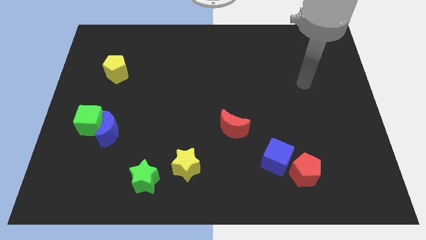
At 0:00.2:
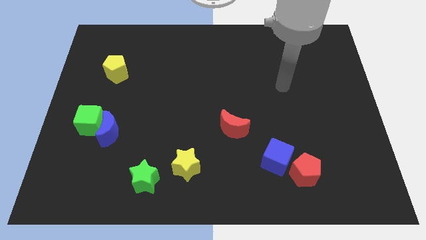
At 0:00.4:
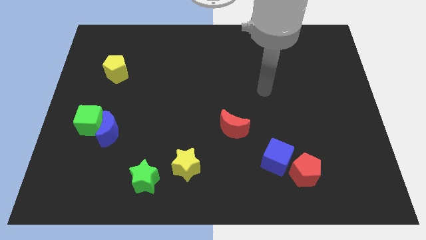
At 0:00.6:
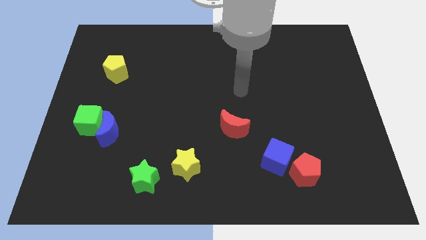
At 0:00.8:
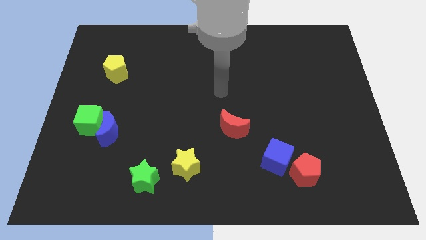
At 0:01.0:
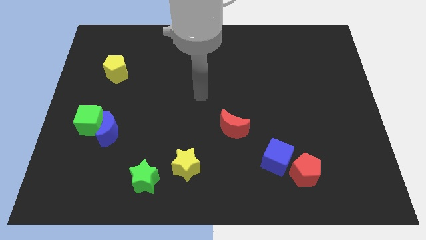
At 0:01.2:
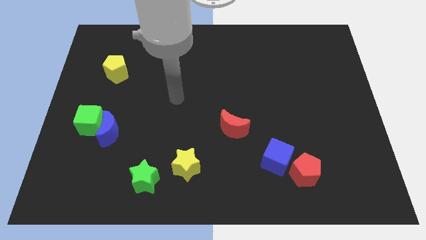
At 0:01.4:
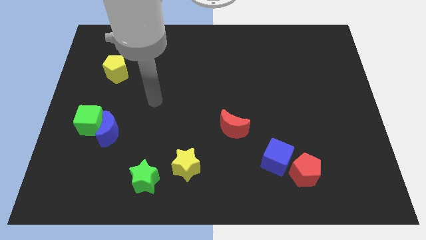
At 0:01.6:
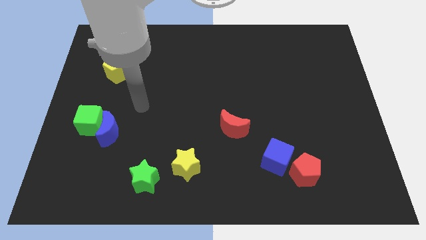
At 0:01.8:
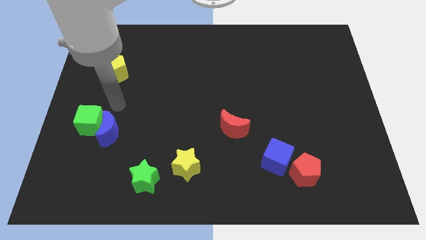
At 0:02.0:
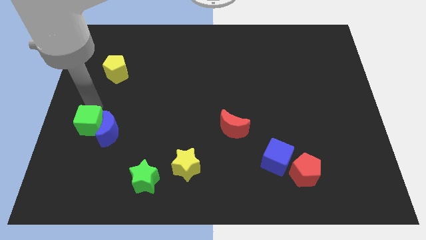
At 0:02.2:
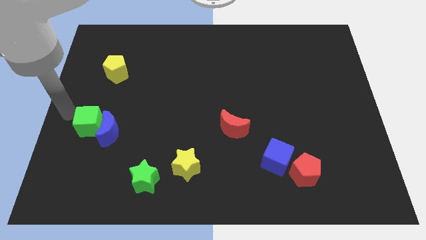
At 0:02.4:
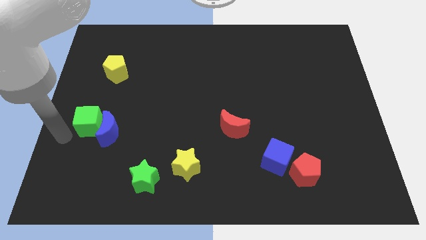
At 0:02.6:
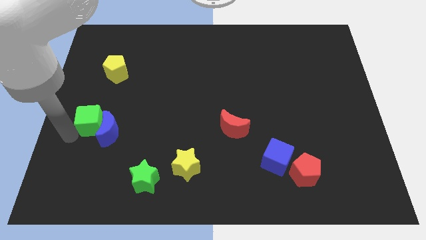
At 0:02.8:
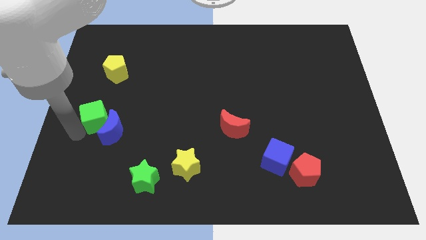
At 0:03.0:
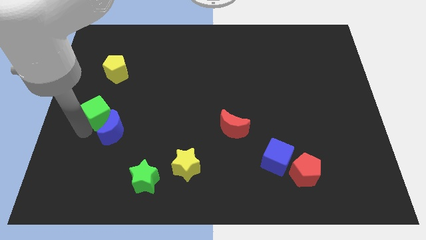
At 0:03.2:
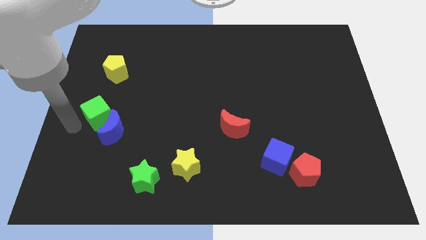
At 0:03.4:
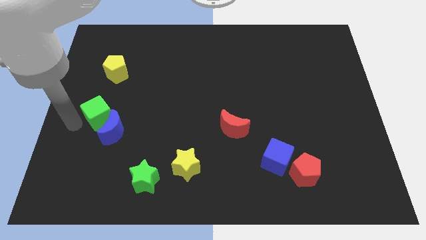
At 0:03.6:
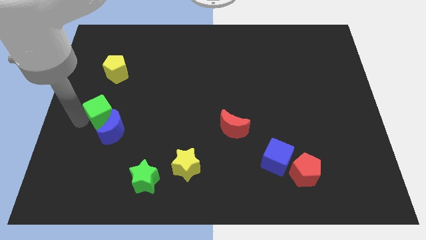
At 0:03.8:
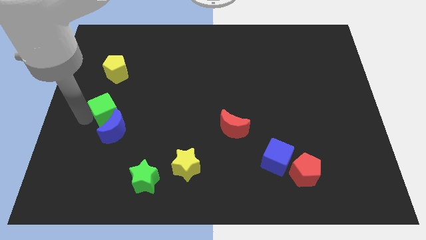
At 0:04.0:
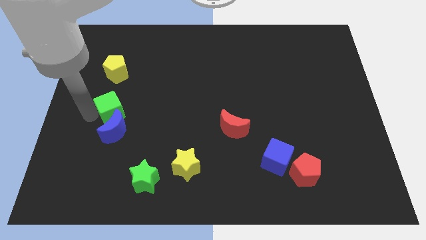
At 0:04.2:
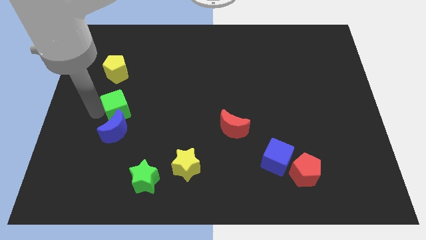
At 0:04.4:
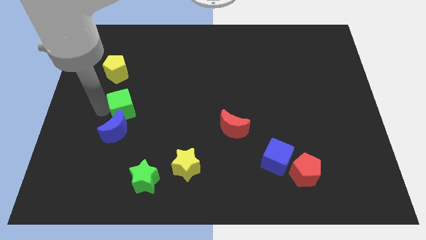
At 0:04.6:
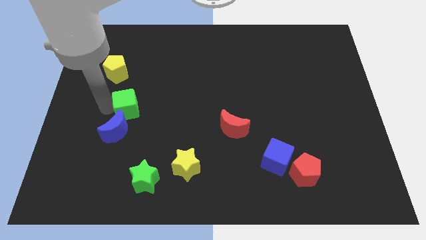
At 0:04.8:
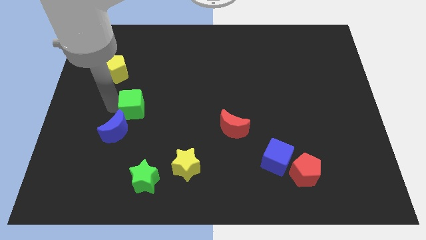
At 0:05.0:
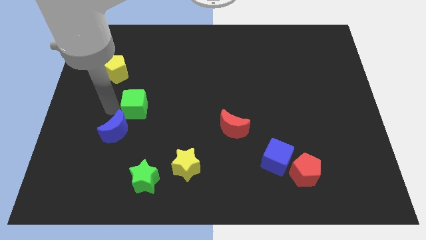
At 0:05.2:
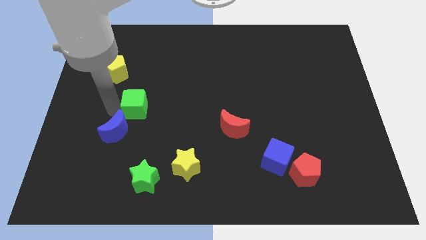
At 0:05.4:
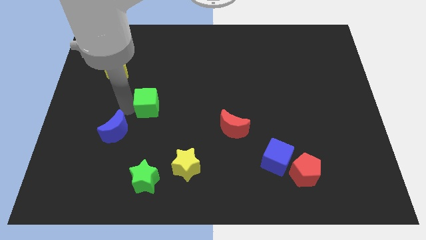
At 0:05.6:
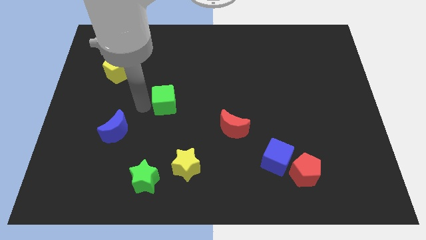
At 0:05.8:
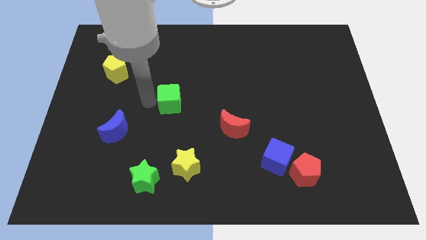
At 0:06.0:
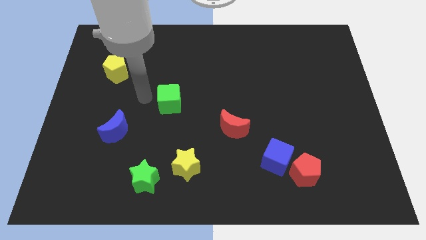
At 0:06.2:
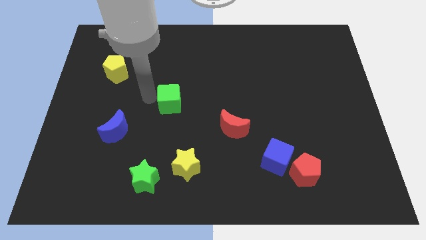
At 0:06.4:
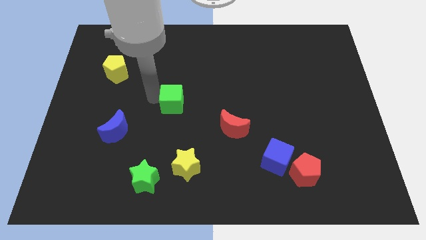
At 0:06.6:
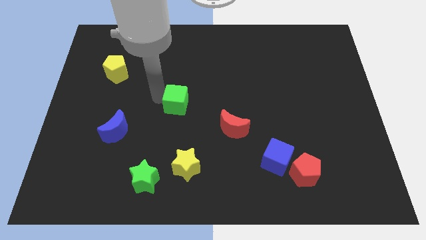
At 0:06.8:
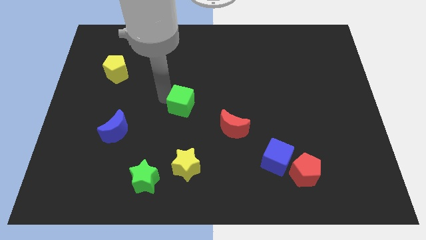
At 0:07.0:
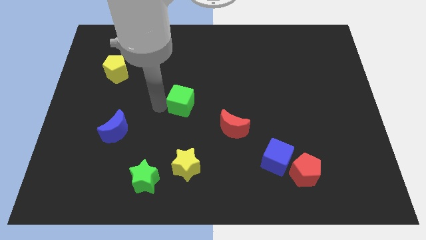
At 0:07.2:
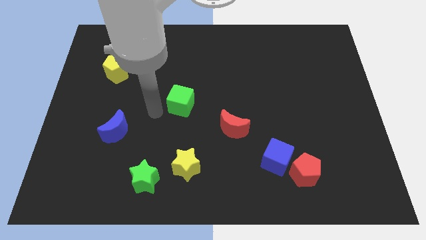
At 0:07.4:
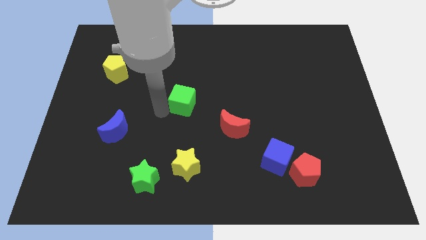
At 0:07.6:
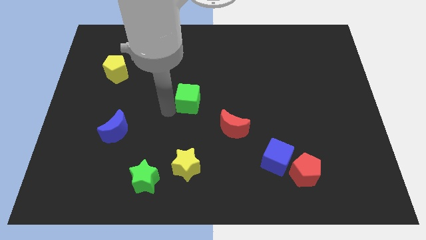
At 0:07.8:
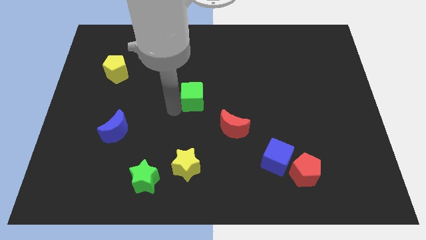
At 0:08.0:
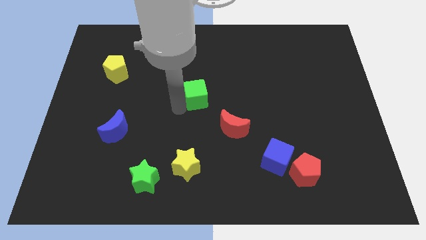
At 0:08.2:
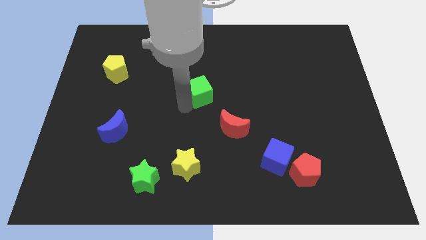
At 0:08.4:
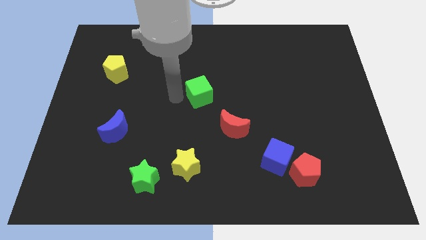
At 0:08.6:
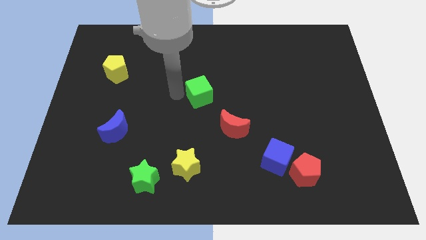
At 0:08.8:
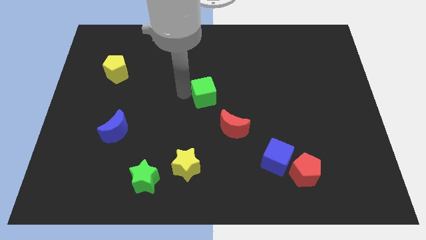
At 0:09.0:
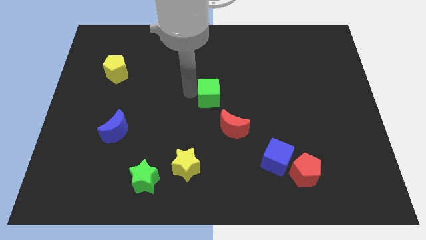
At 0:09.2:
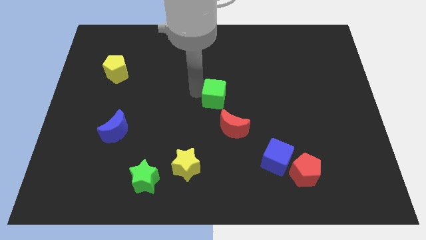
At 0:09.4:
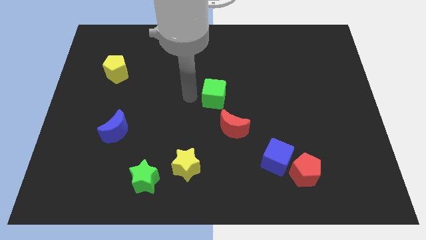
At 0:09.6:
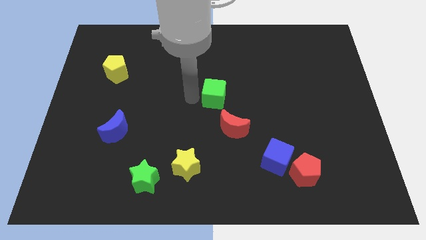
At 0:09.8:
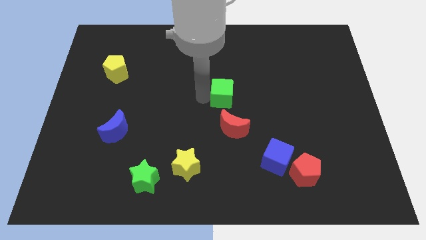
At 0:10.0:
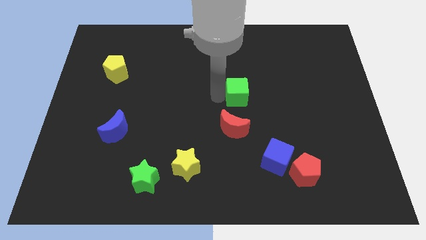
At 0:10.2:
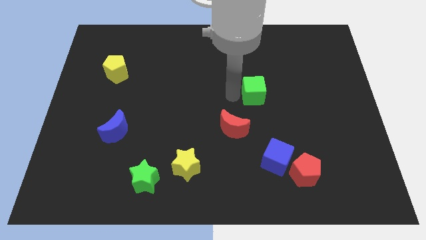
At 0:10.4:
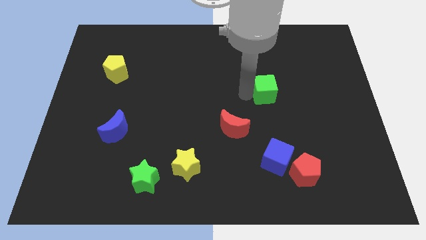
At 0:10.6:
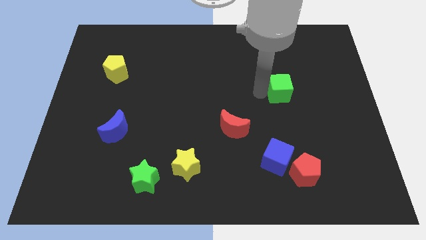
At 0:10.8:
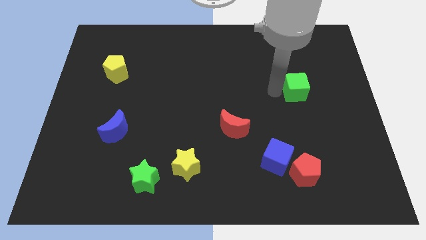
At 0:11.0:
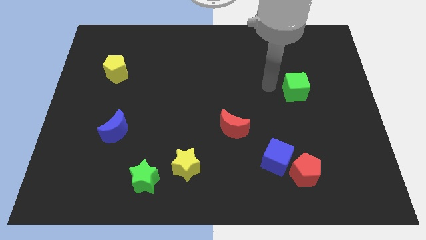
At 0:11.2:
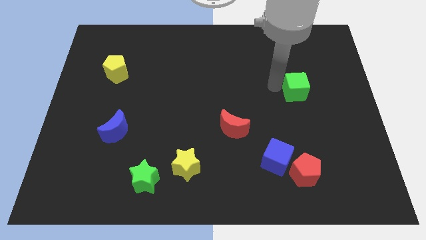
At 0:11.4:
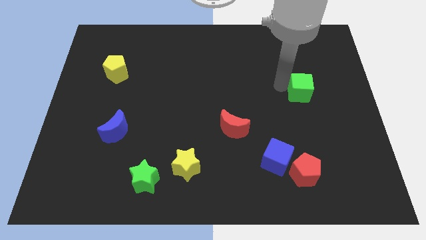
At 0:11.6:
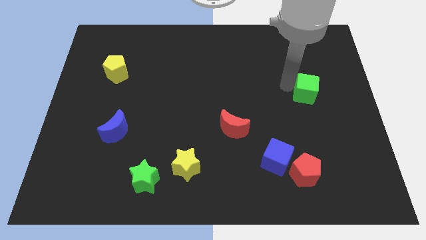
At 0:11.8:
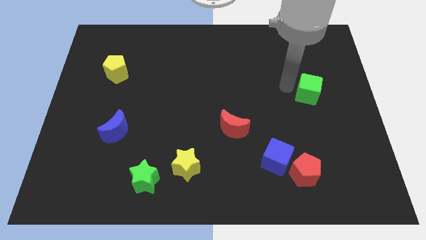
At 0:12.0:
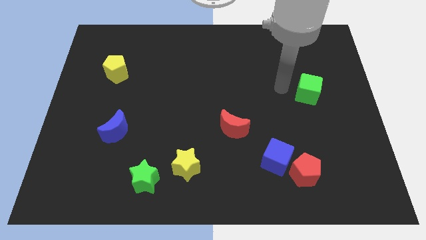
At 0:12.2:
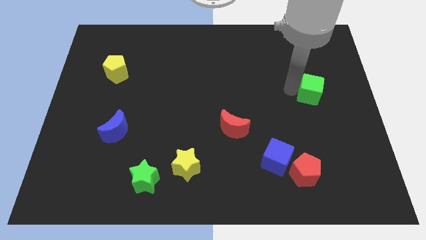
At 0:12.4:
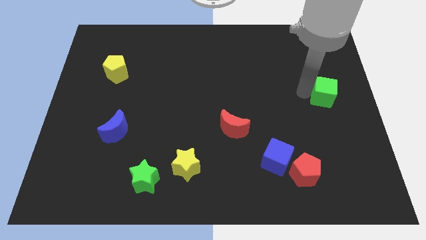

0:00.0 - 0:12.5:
move the green cube to the right side of the board

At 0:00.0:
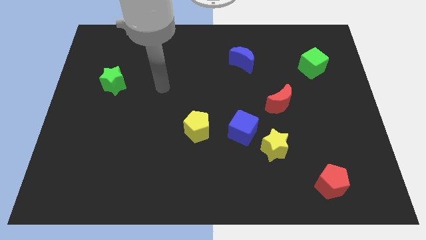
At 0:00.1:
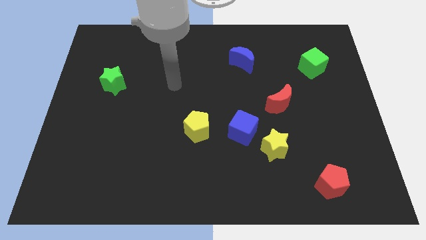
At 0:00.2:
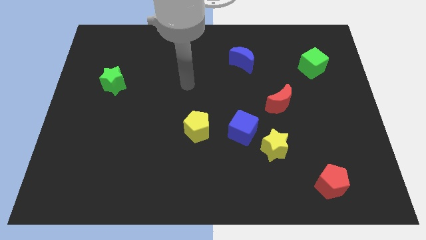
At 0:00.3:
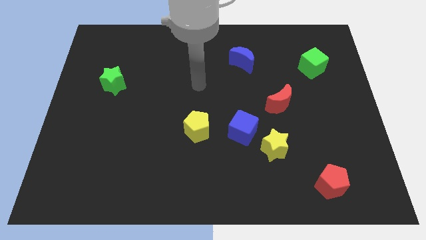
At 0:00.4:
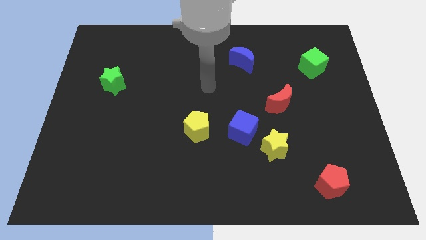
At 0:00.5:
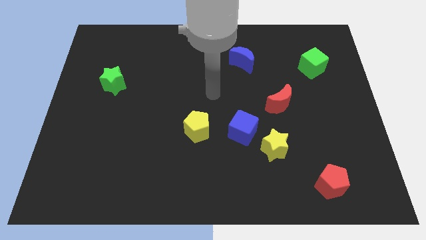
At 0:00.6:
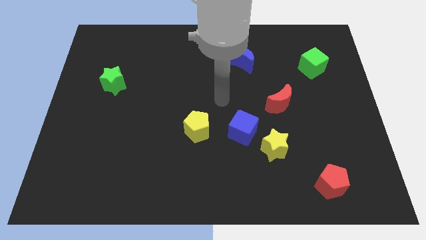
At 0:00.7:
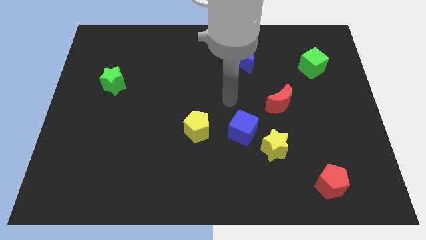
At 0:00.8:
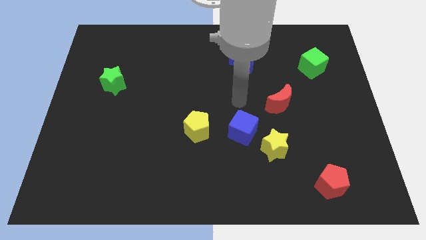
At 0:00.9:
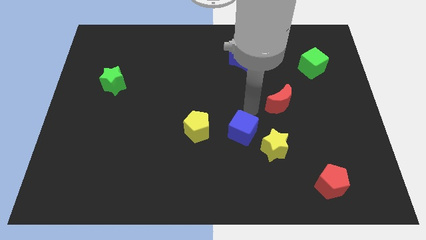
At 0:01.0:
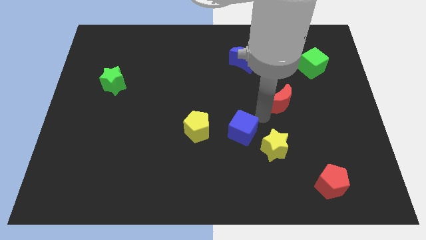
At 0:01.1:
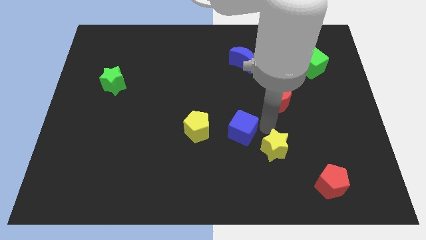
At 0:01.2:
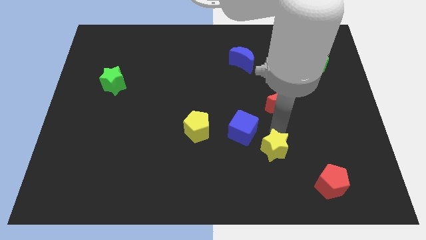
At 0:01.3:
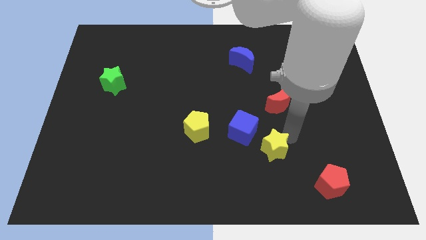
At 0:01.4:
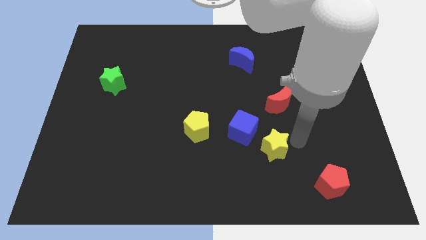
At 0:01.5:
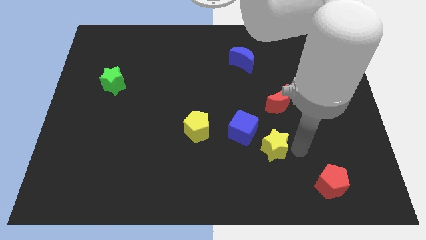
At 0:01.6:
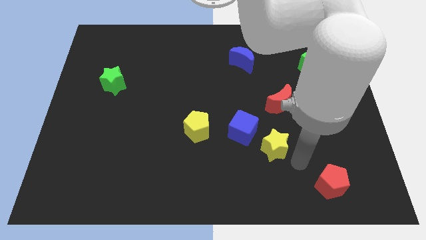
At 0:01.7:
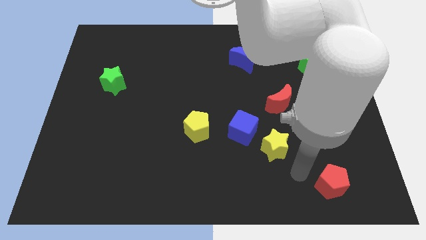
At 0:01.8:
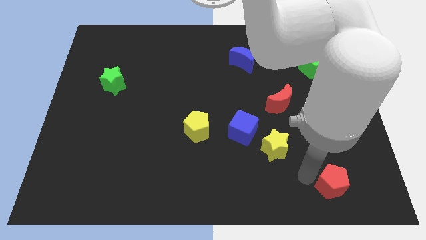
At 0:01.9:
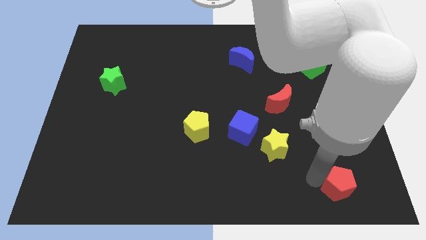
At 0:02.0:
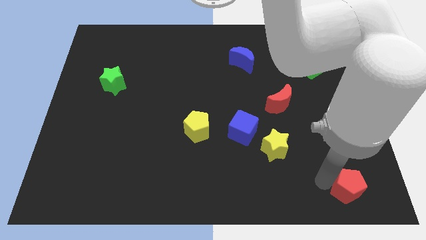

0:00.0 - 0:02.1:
push the red pentagon to the bottom right
